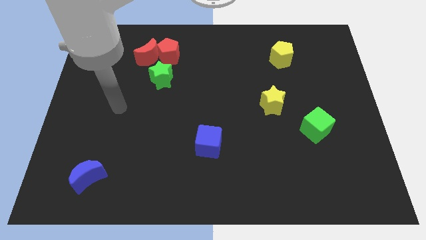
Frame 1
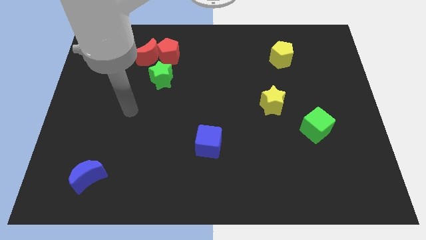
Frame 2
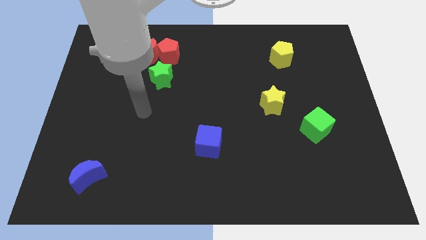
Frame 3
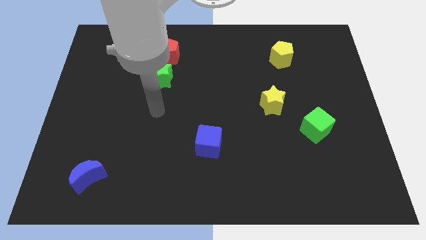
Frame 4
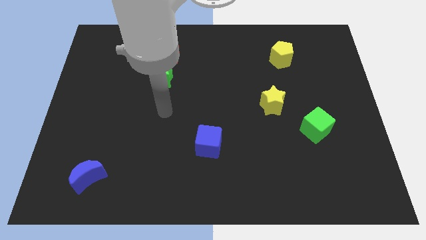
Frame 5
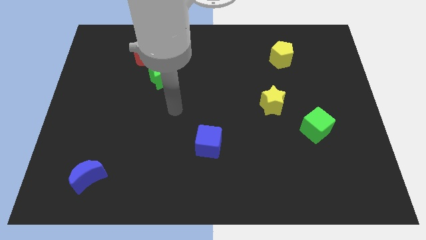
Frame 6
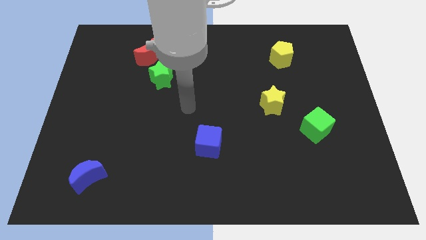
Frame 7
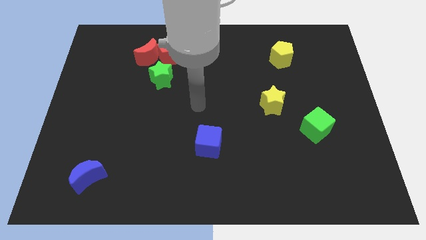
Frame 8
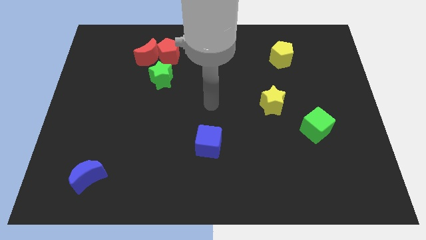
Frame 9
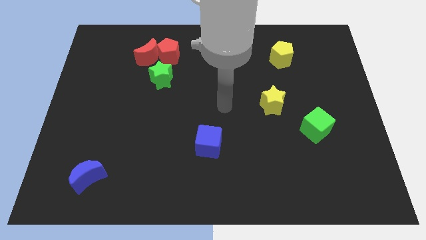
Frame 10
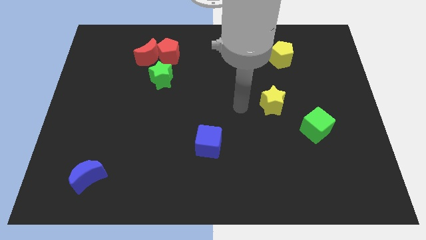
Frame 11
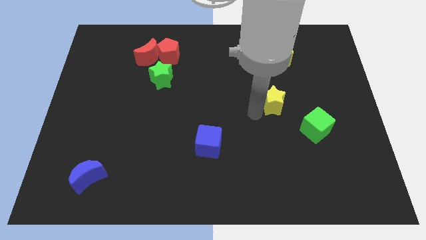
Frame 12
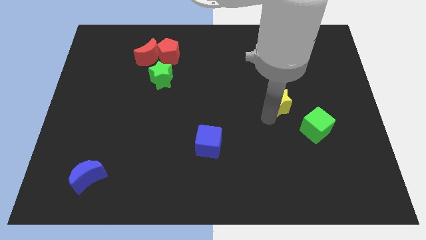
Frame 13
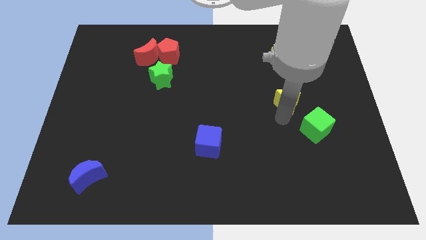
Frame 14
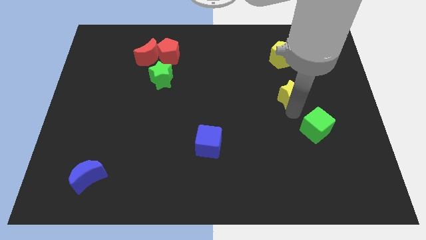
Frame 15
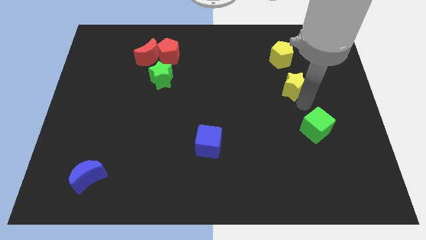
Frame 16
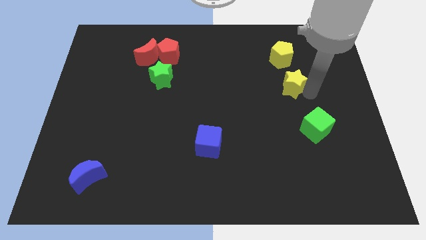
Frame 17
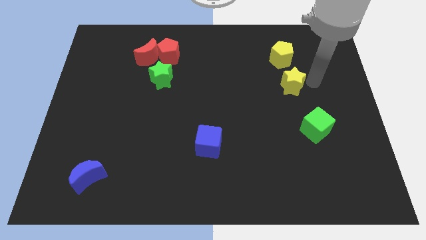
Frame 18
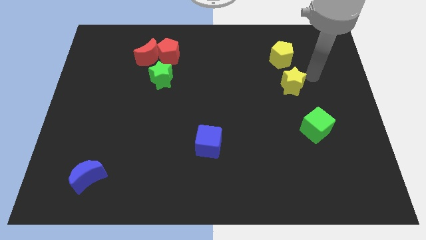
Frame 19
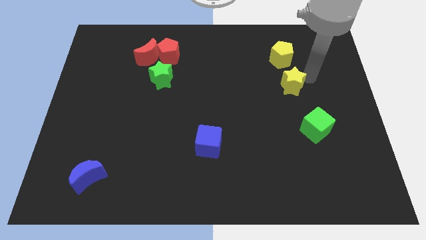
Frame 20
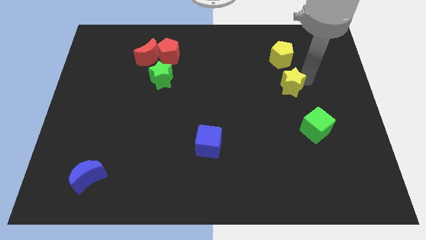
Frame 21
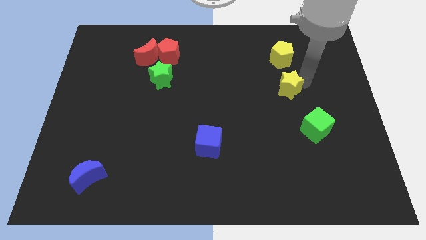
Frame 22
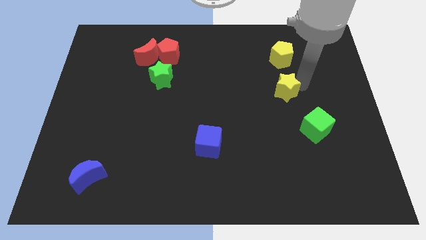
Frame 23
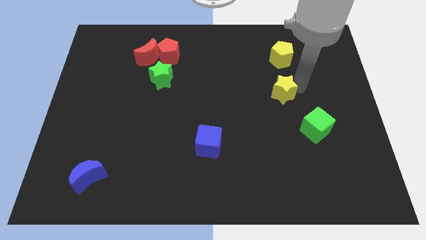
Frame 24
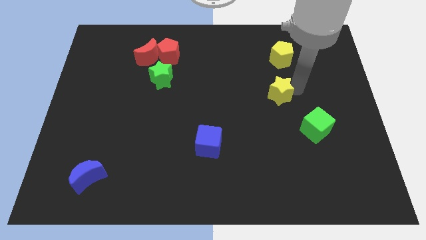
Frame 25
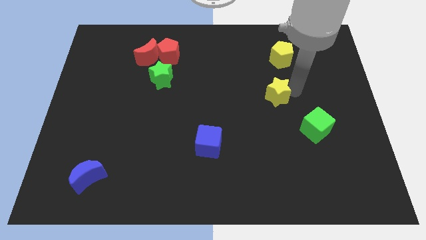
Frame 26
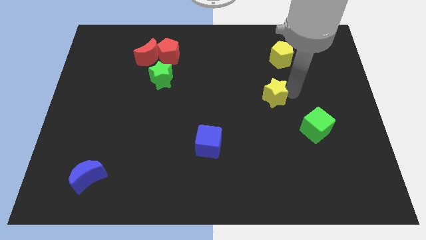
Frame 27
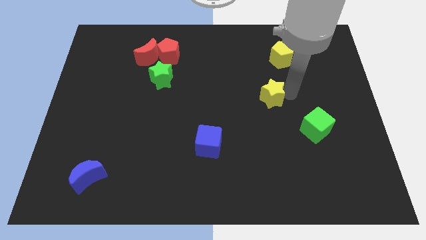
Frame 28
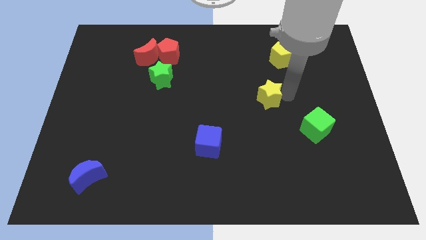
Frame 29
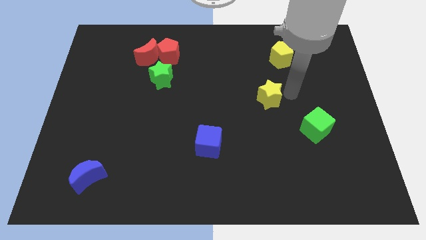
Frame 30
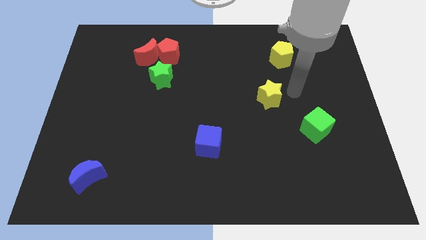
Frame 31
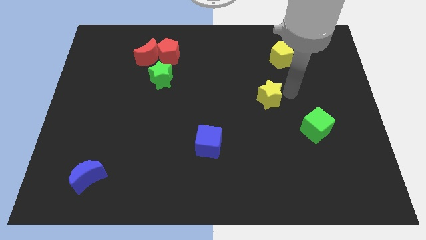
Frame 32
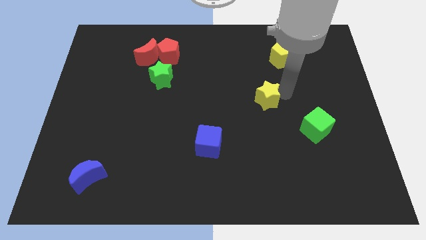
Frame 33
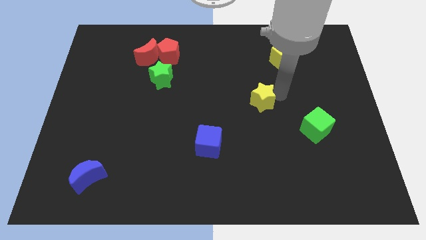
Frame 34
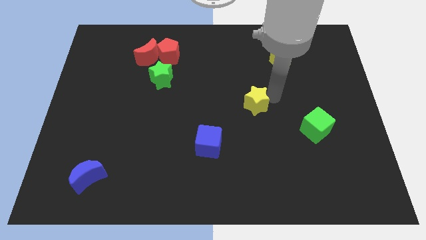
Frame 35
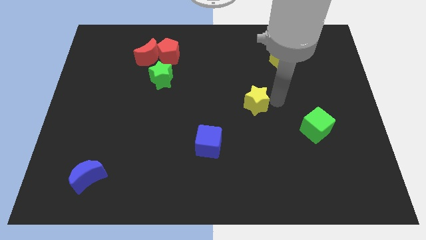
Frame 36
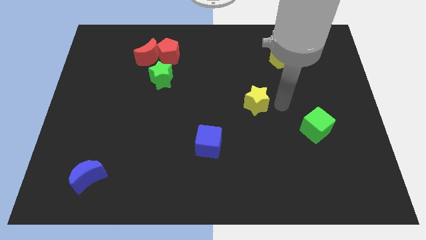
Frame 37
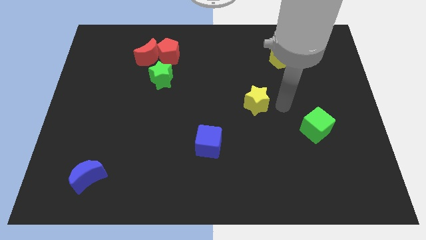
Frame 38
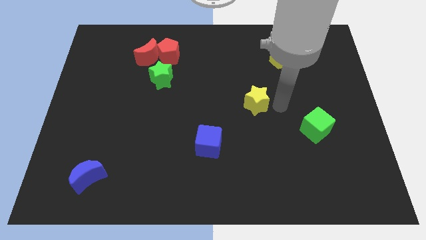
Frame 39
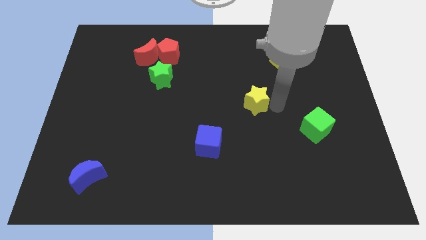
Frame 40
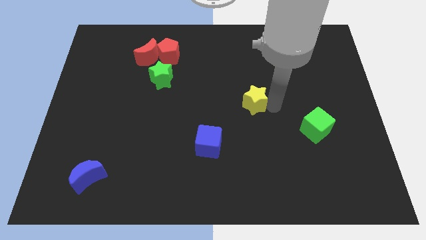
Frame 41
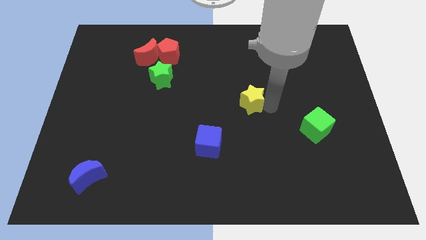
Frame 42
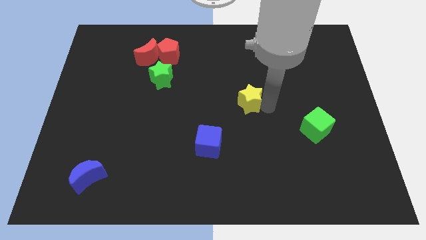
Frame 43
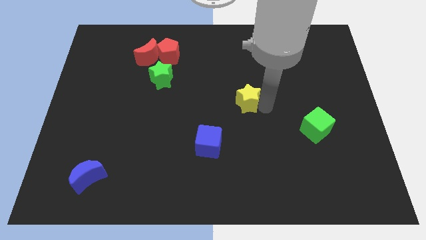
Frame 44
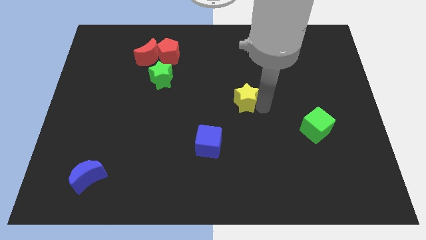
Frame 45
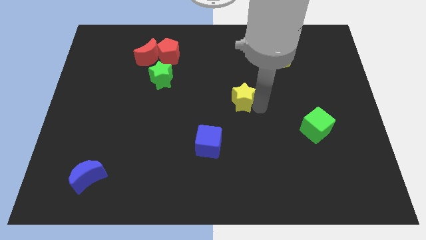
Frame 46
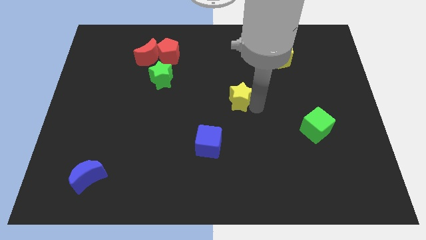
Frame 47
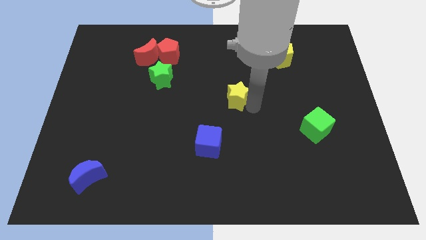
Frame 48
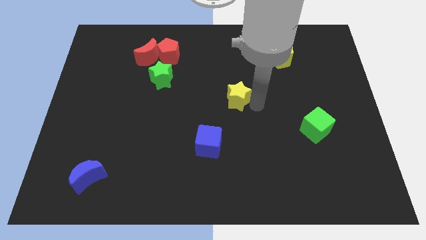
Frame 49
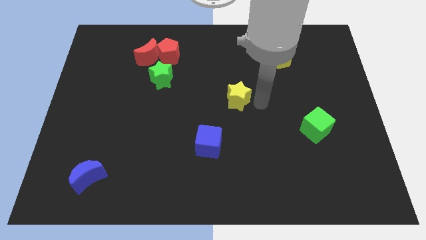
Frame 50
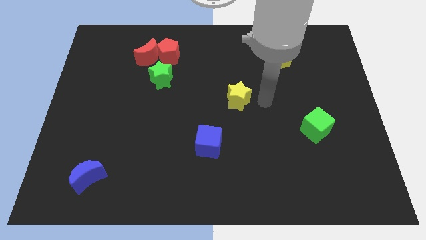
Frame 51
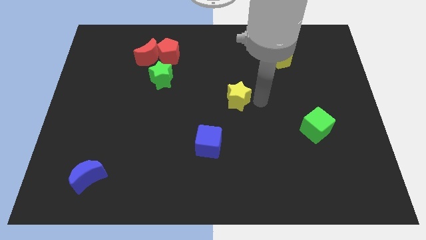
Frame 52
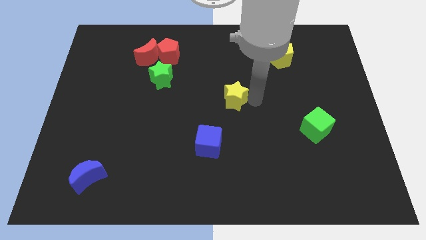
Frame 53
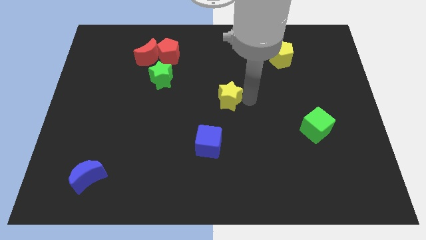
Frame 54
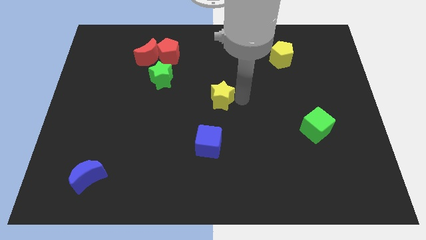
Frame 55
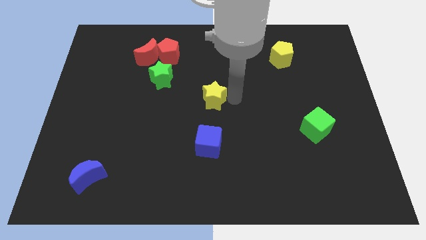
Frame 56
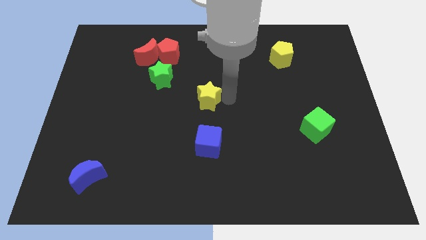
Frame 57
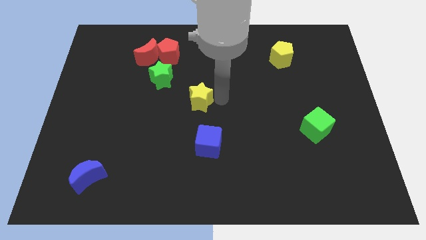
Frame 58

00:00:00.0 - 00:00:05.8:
move the yellow star diagonally down and to the right of the green star
